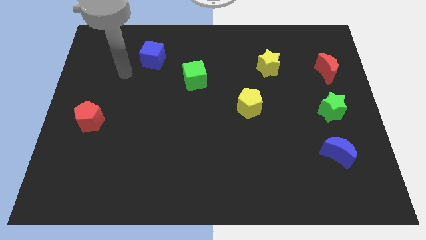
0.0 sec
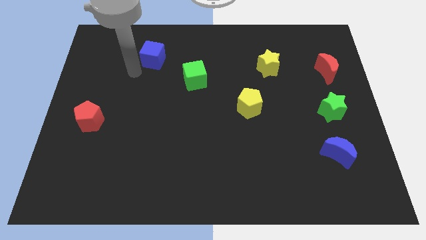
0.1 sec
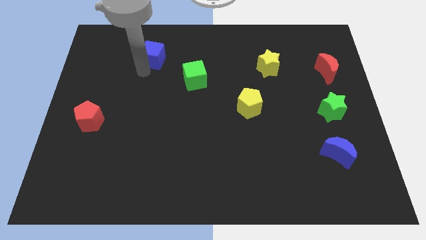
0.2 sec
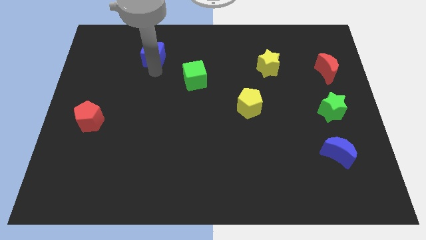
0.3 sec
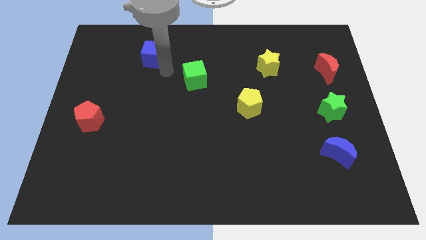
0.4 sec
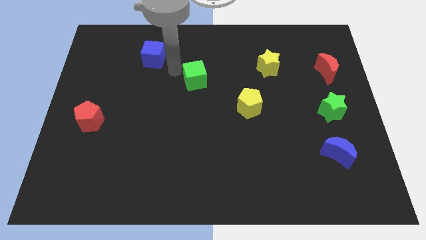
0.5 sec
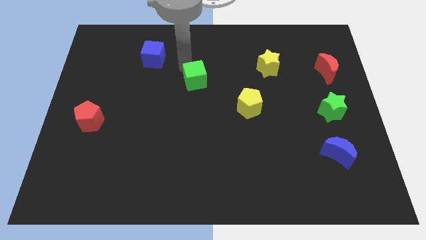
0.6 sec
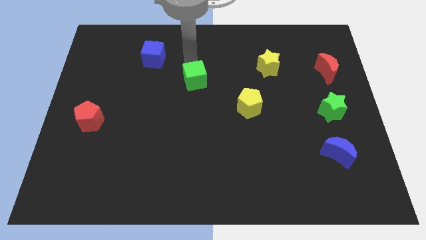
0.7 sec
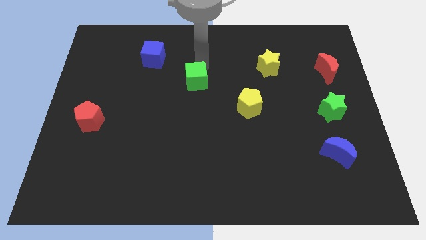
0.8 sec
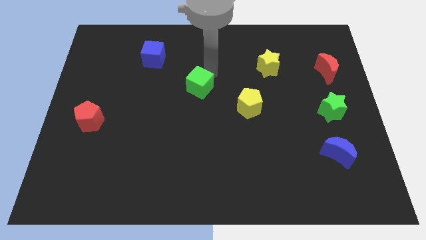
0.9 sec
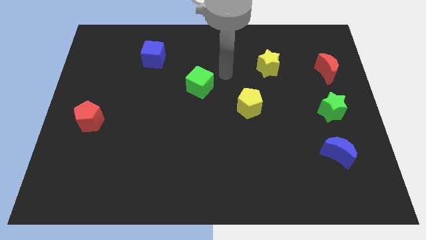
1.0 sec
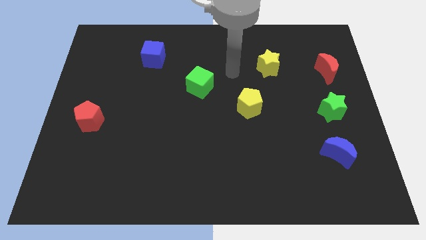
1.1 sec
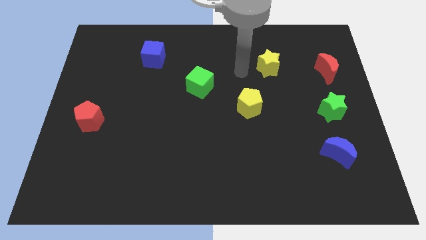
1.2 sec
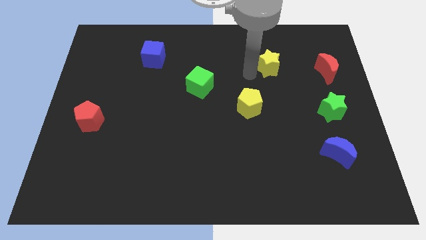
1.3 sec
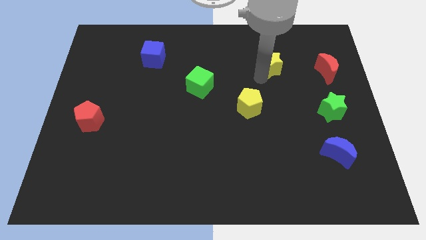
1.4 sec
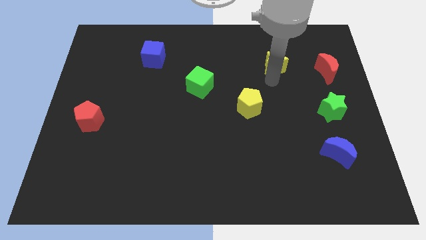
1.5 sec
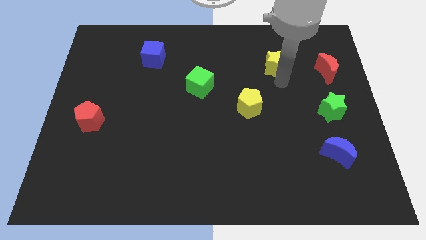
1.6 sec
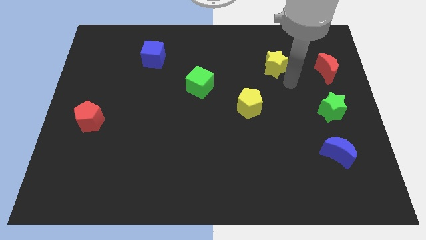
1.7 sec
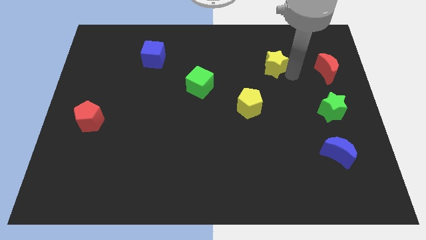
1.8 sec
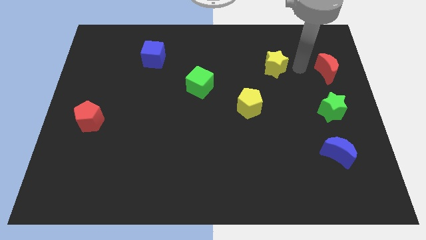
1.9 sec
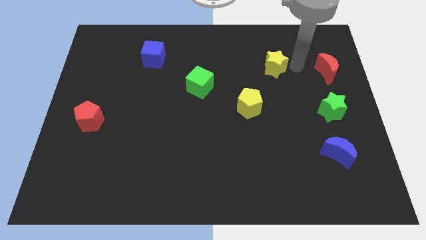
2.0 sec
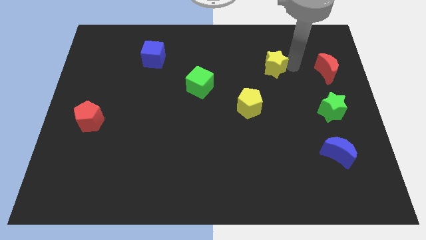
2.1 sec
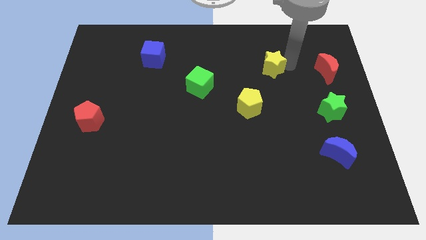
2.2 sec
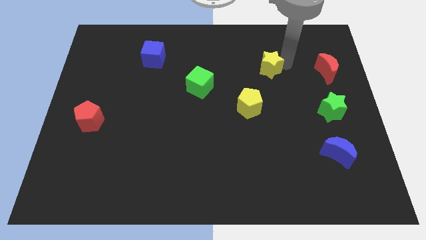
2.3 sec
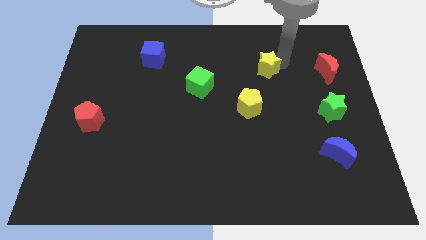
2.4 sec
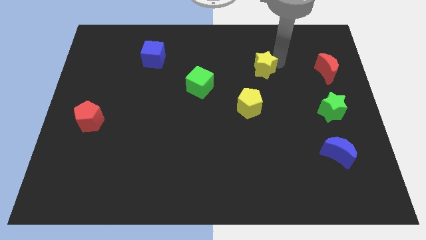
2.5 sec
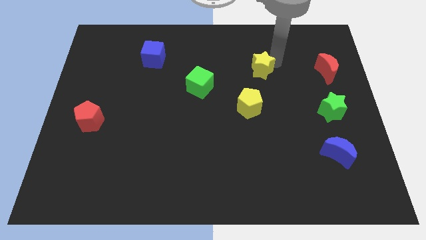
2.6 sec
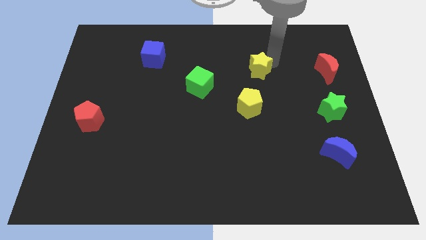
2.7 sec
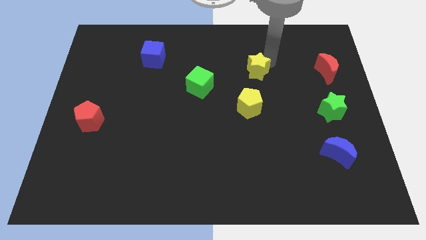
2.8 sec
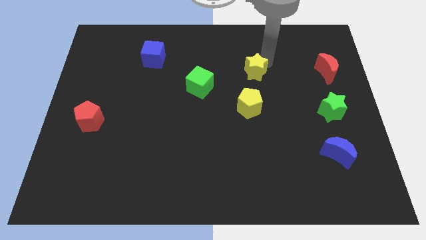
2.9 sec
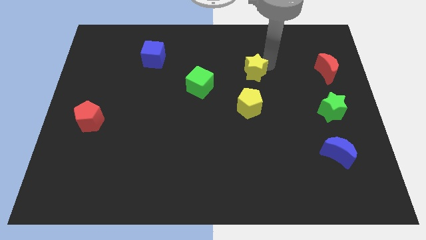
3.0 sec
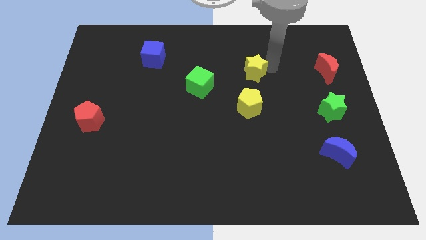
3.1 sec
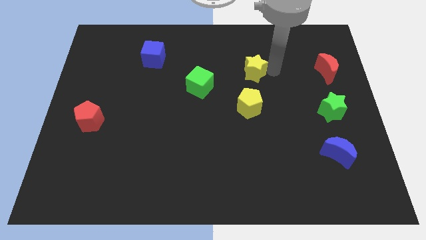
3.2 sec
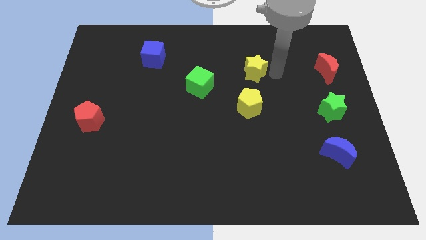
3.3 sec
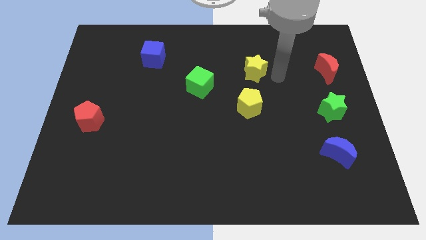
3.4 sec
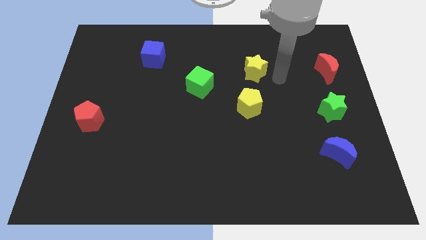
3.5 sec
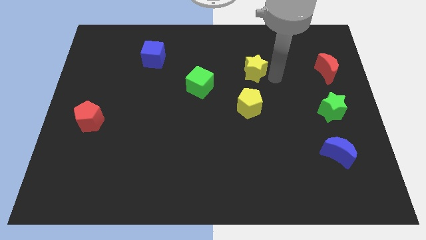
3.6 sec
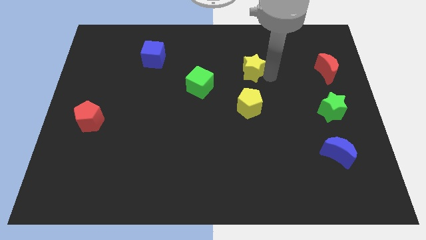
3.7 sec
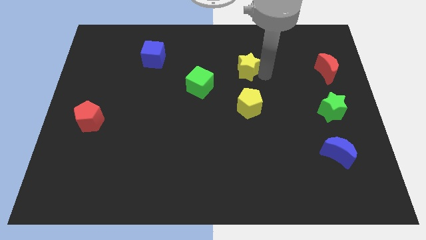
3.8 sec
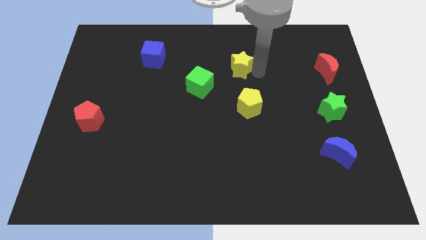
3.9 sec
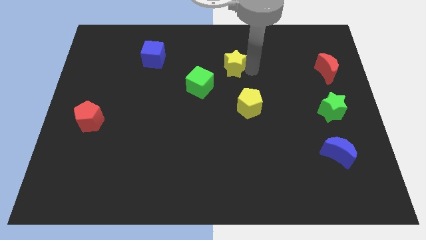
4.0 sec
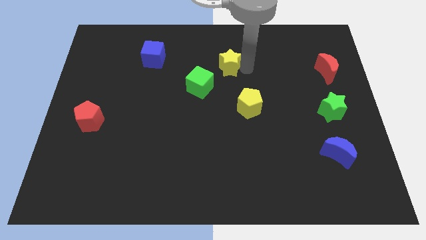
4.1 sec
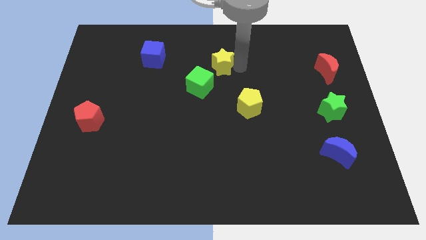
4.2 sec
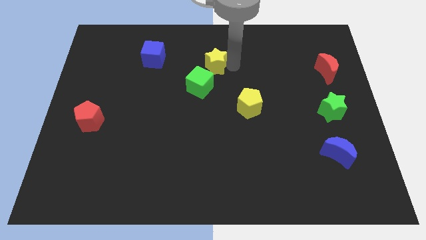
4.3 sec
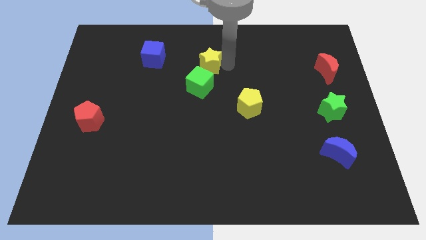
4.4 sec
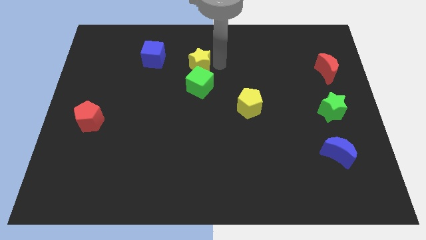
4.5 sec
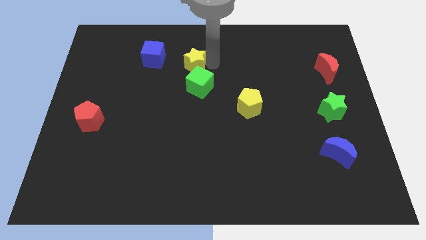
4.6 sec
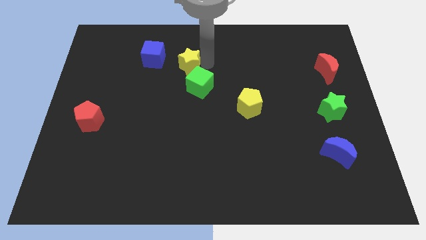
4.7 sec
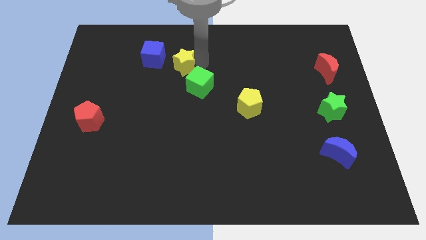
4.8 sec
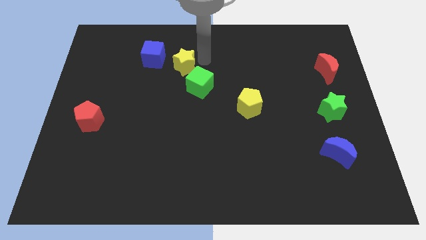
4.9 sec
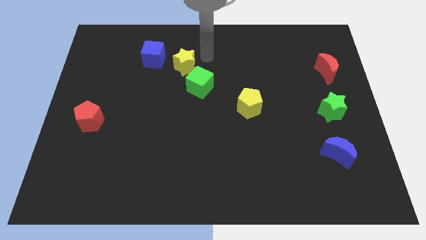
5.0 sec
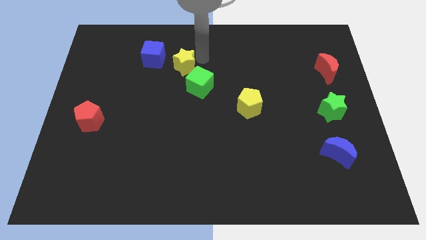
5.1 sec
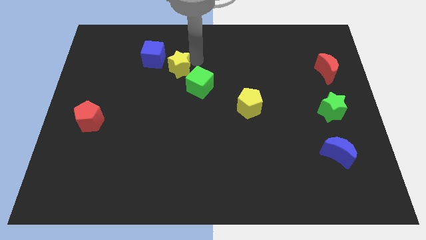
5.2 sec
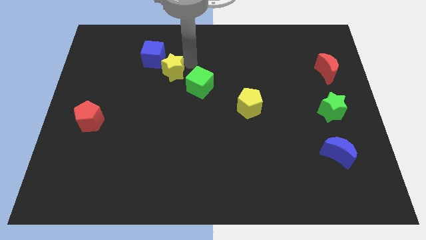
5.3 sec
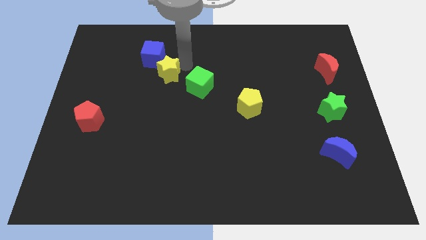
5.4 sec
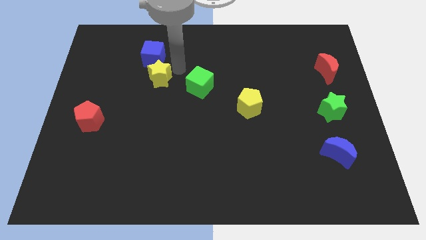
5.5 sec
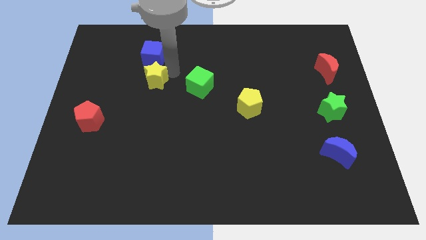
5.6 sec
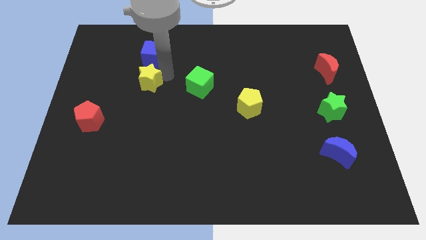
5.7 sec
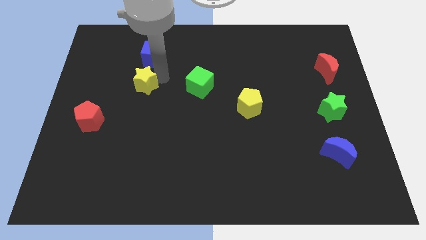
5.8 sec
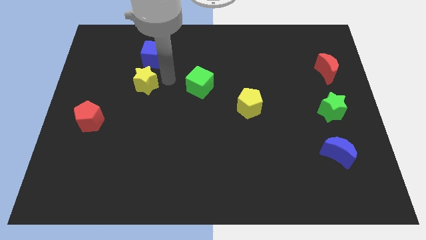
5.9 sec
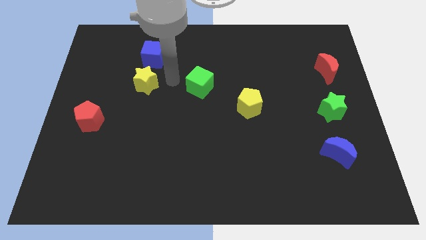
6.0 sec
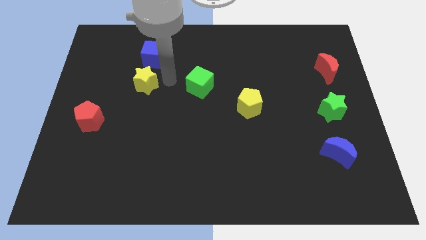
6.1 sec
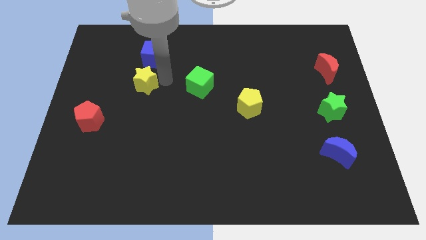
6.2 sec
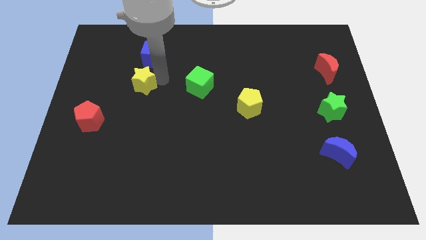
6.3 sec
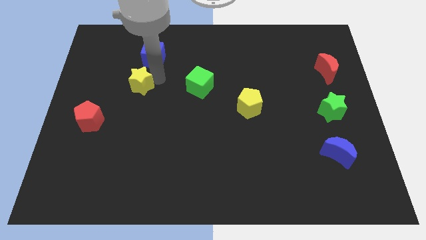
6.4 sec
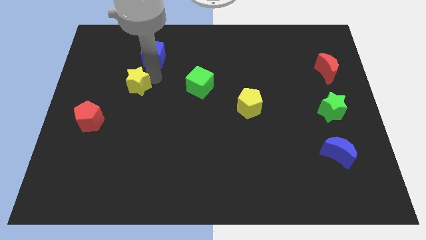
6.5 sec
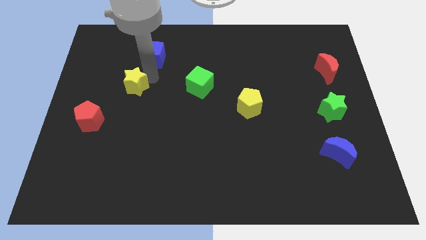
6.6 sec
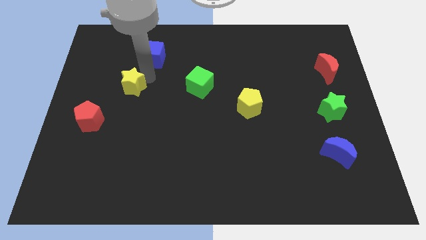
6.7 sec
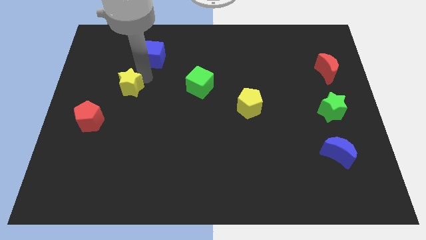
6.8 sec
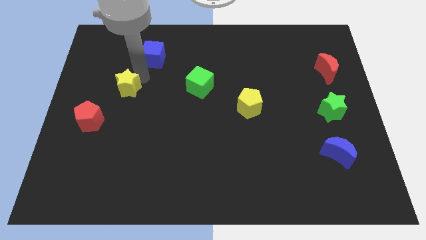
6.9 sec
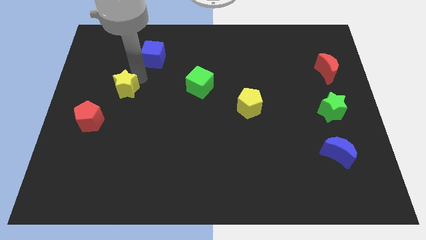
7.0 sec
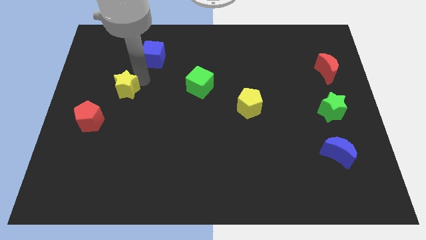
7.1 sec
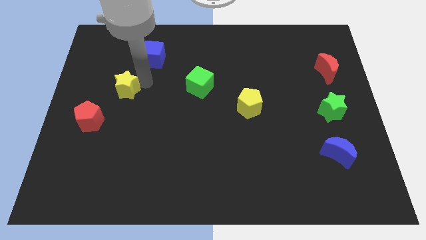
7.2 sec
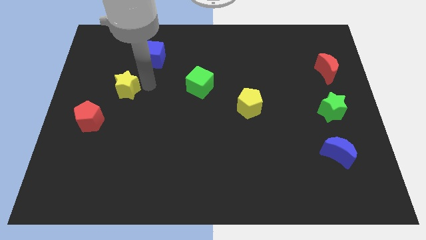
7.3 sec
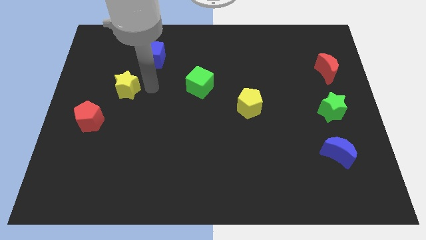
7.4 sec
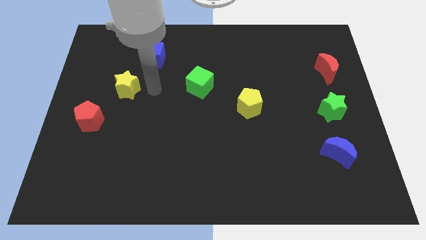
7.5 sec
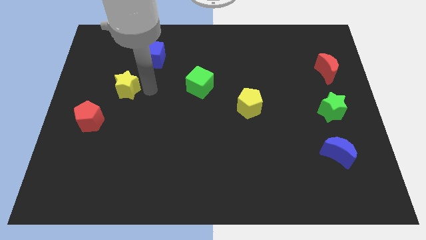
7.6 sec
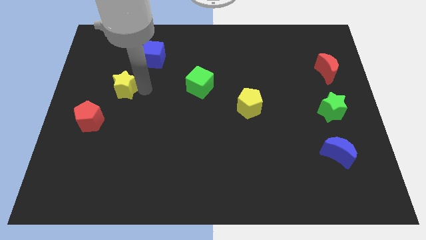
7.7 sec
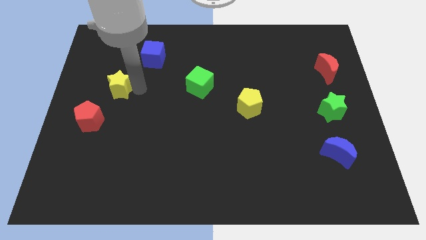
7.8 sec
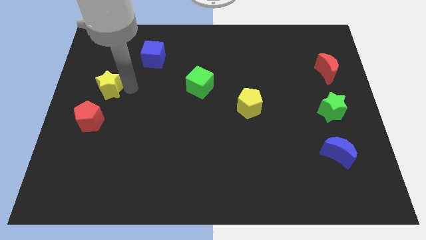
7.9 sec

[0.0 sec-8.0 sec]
put the yellow star to the center left
